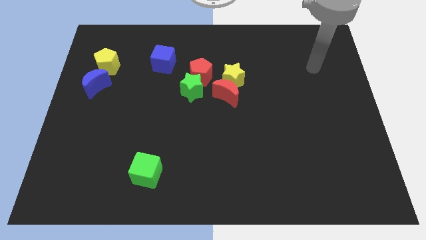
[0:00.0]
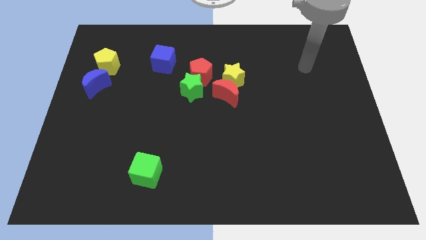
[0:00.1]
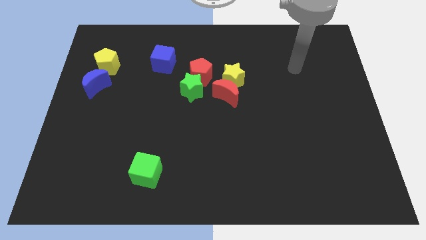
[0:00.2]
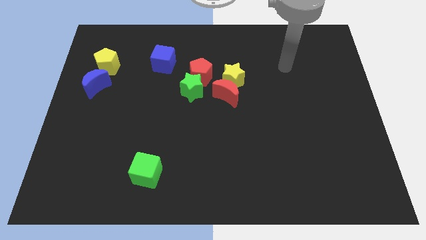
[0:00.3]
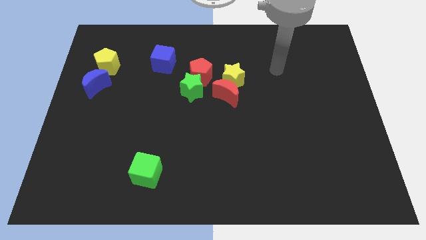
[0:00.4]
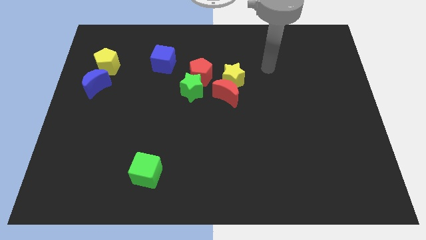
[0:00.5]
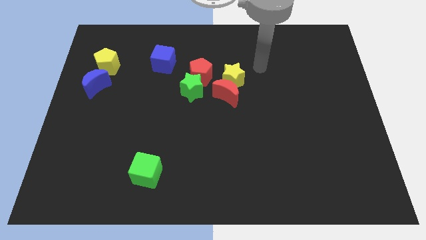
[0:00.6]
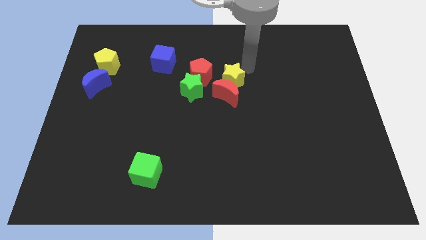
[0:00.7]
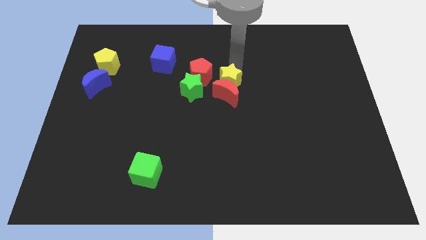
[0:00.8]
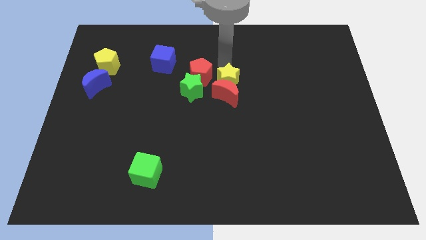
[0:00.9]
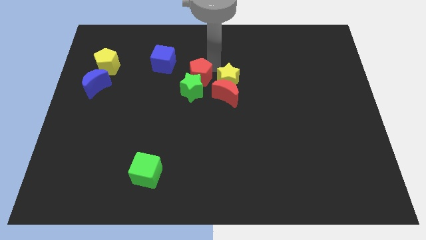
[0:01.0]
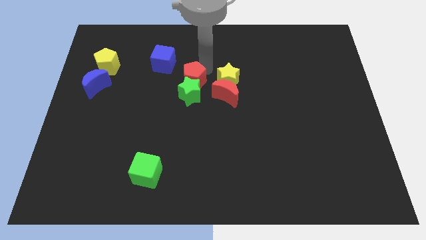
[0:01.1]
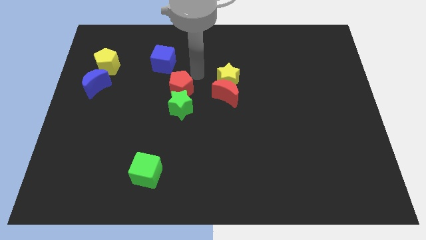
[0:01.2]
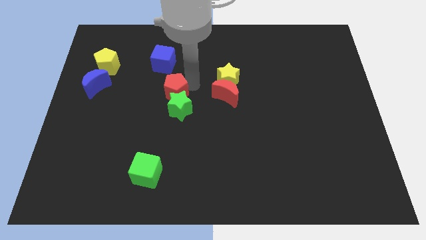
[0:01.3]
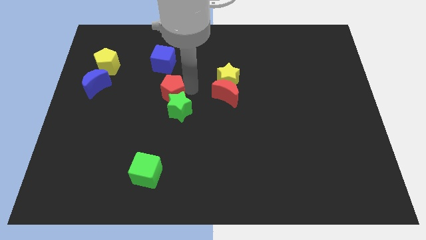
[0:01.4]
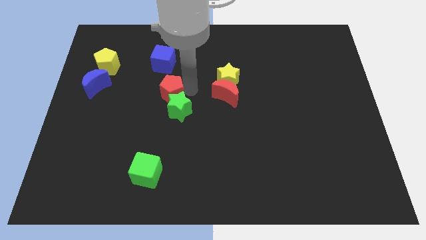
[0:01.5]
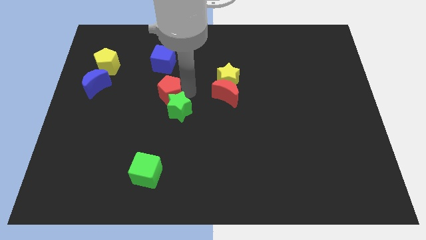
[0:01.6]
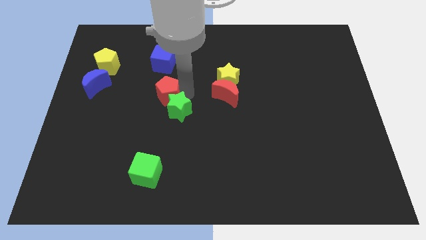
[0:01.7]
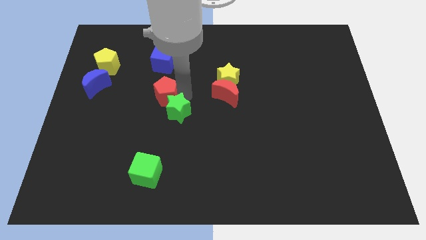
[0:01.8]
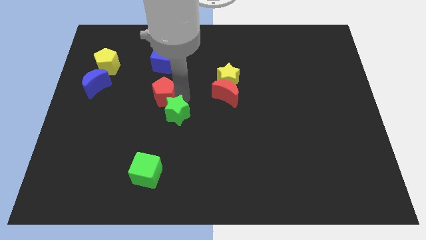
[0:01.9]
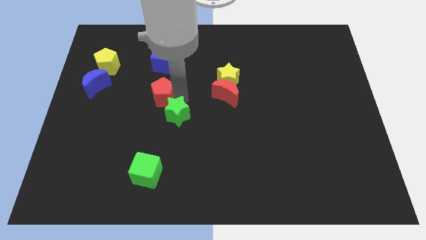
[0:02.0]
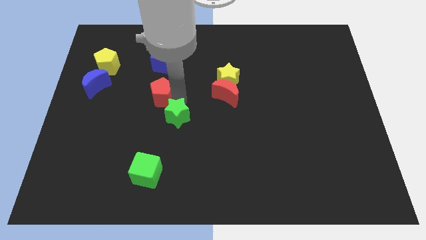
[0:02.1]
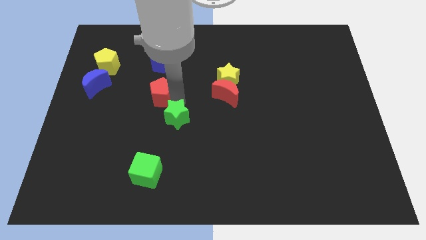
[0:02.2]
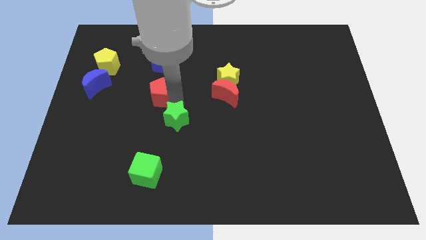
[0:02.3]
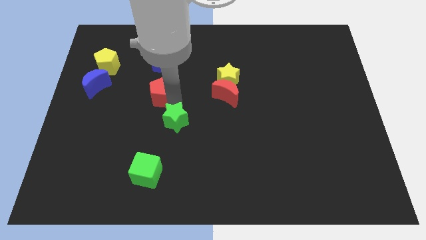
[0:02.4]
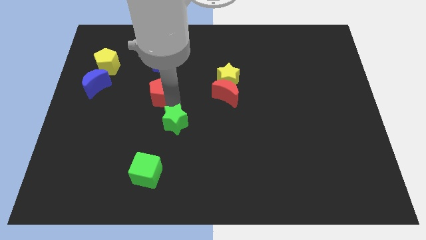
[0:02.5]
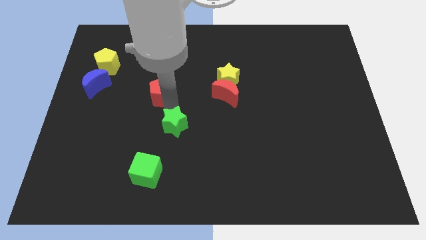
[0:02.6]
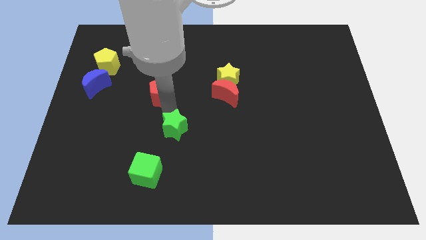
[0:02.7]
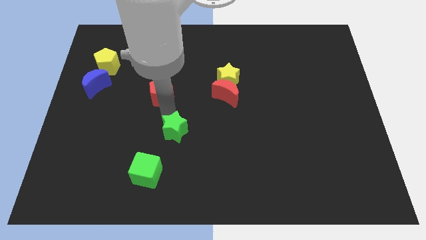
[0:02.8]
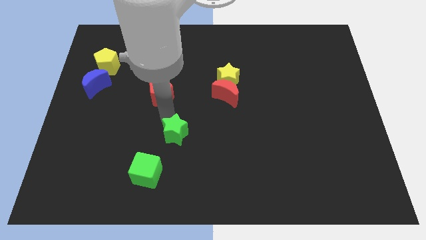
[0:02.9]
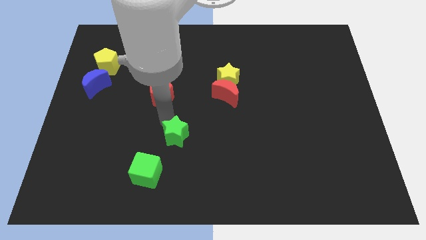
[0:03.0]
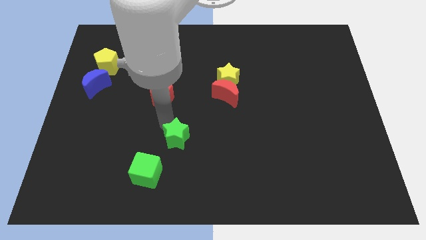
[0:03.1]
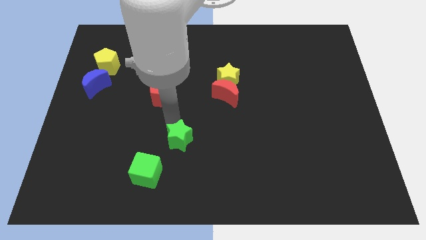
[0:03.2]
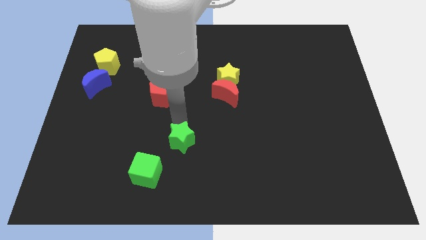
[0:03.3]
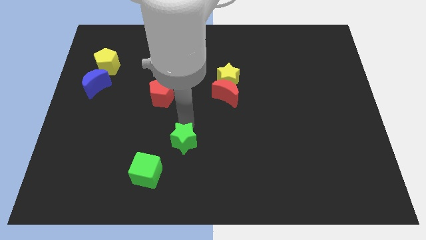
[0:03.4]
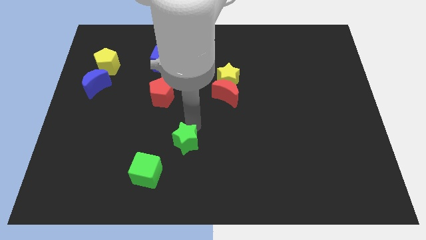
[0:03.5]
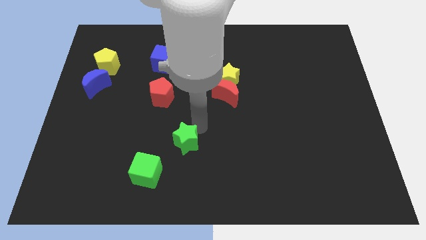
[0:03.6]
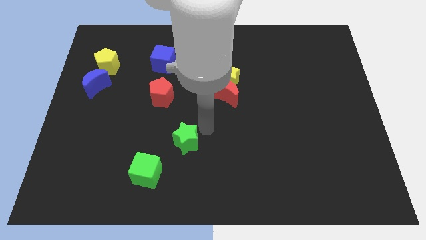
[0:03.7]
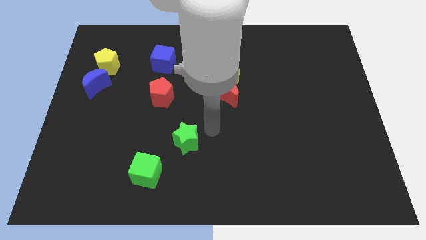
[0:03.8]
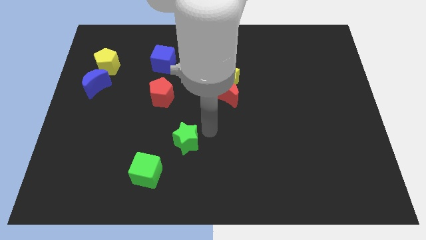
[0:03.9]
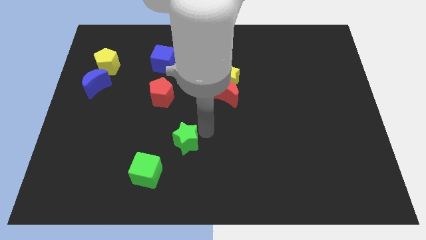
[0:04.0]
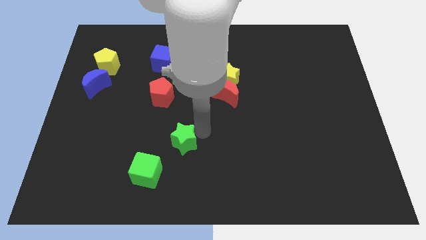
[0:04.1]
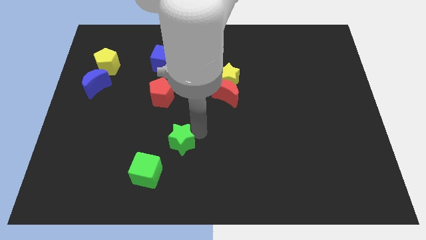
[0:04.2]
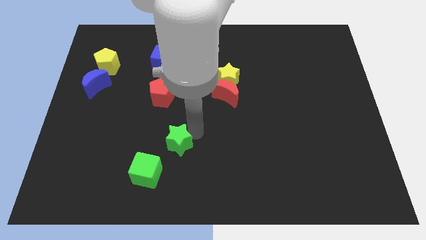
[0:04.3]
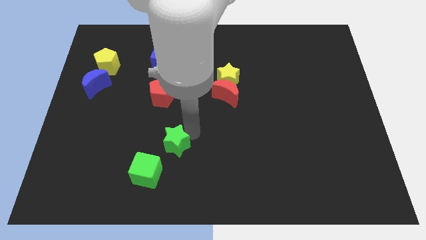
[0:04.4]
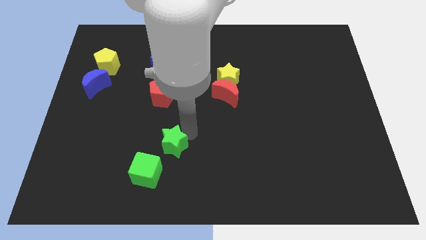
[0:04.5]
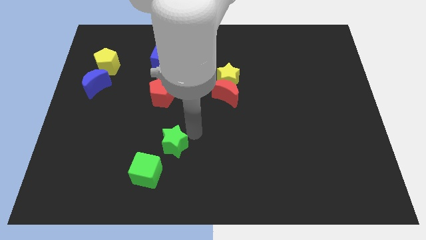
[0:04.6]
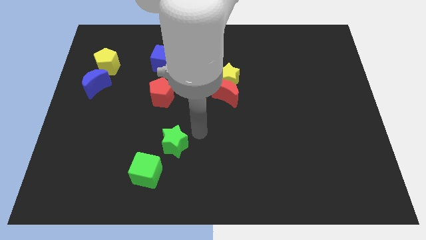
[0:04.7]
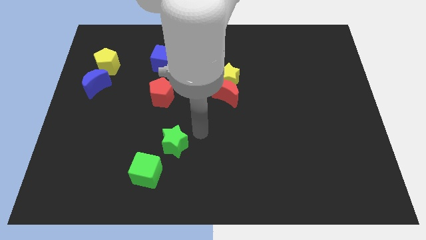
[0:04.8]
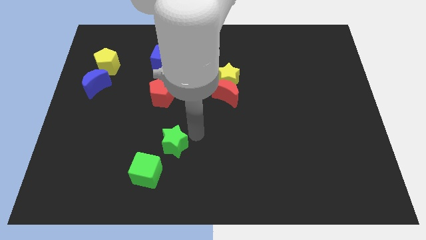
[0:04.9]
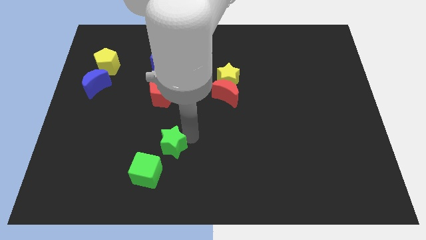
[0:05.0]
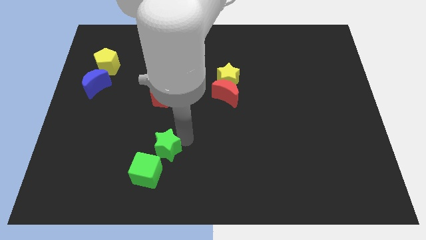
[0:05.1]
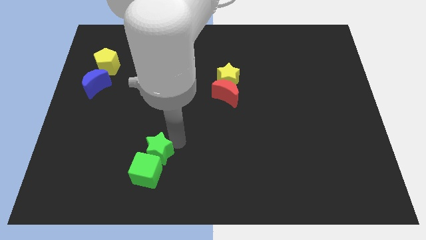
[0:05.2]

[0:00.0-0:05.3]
move the green star next to the green cube

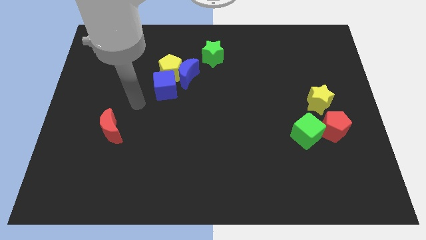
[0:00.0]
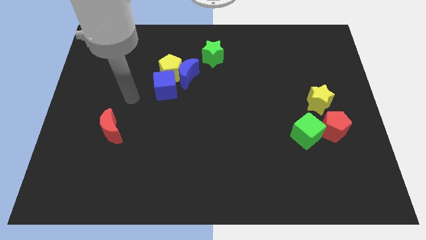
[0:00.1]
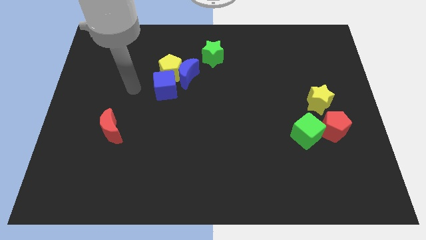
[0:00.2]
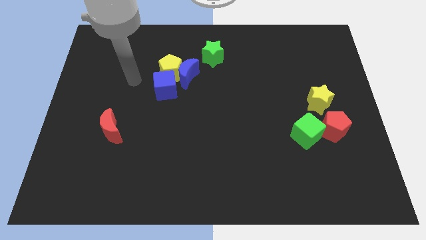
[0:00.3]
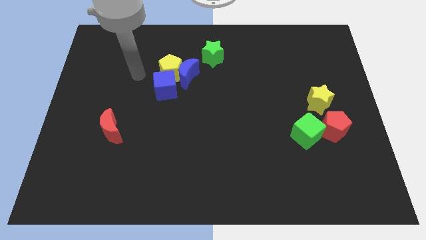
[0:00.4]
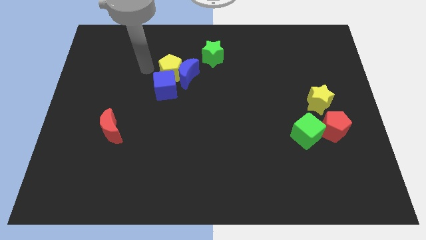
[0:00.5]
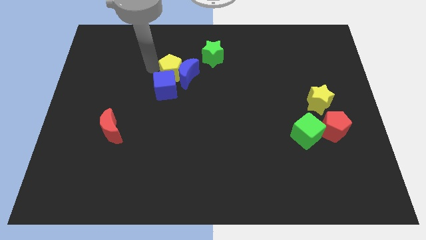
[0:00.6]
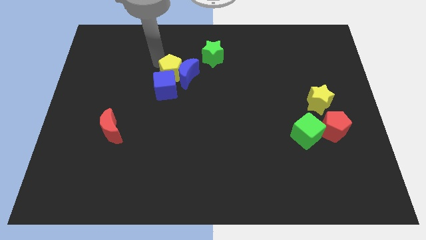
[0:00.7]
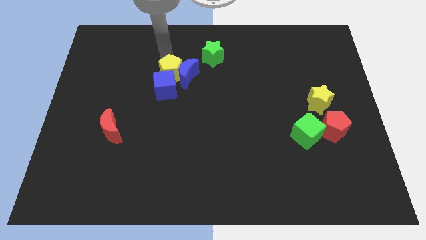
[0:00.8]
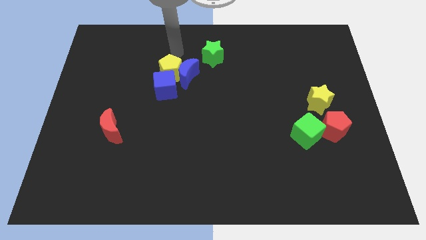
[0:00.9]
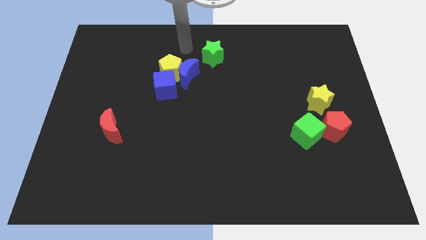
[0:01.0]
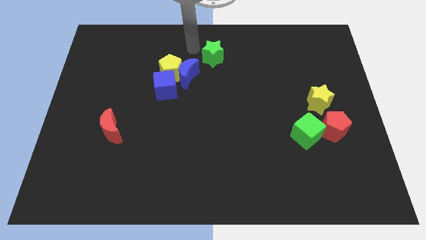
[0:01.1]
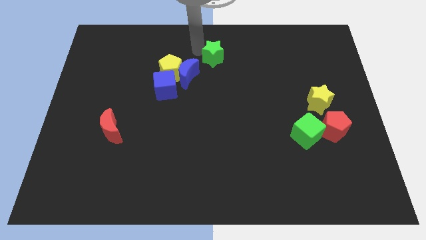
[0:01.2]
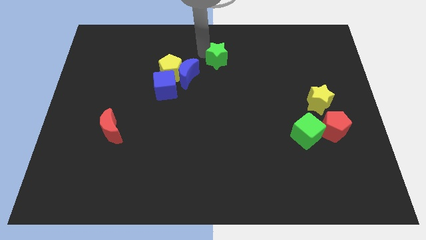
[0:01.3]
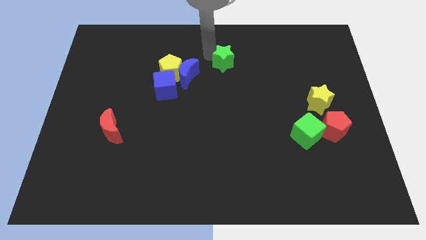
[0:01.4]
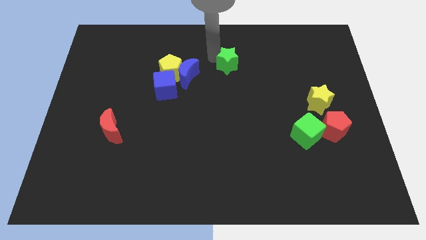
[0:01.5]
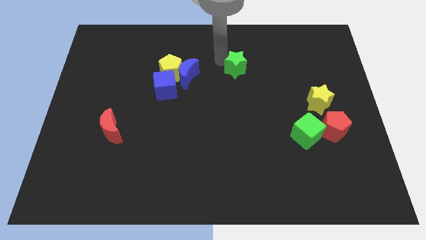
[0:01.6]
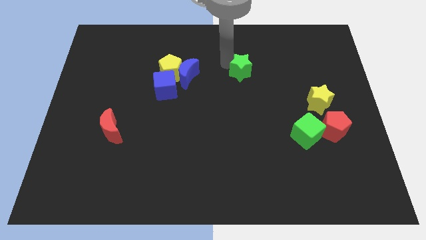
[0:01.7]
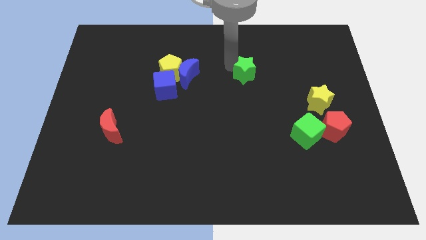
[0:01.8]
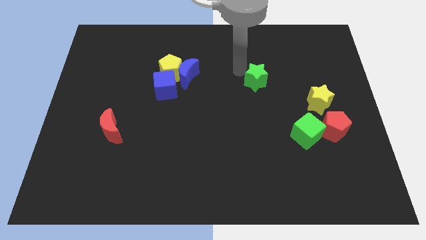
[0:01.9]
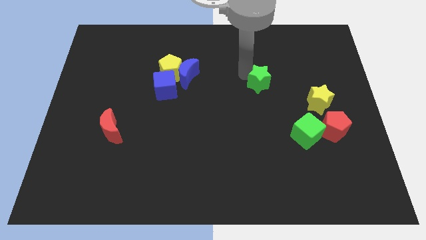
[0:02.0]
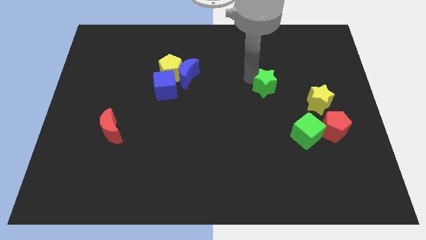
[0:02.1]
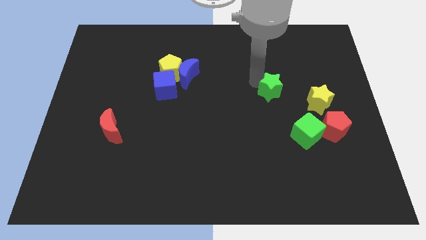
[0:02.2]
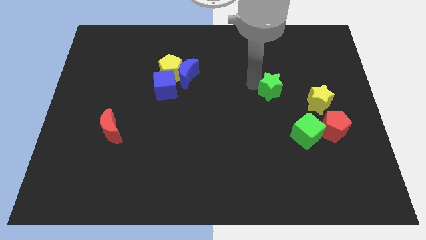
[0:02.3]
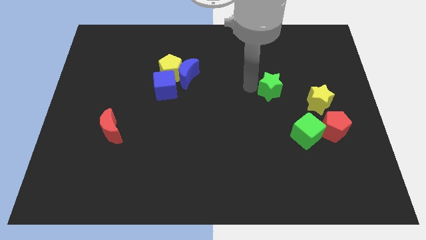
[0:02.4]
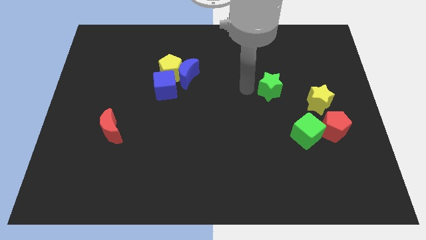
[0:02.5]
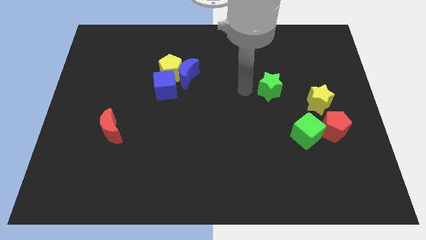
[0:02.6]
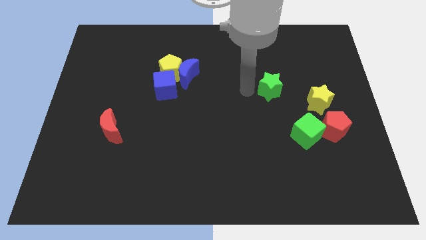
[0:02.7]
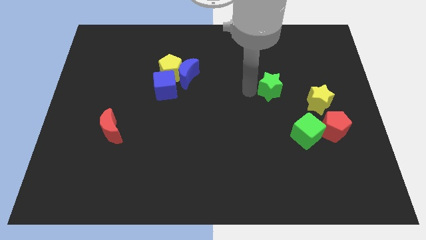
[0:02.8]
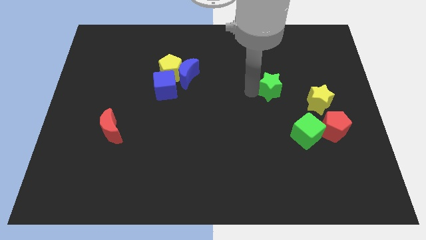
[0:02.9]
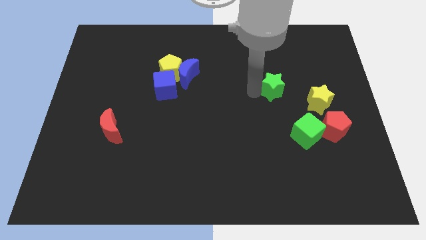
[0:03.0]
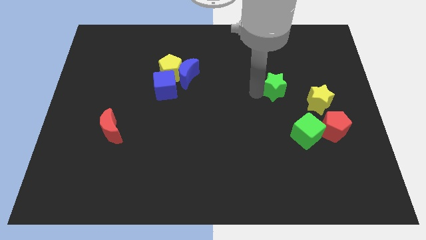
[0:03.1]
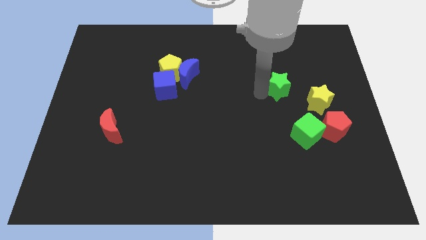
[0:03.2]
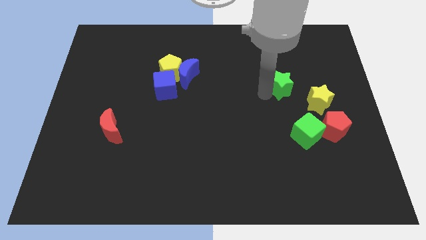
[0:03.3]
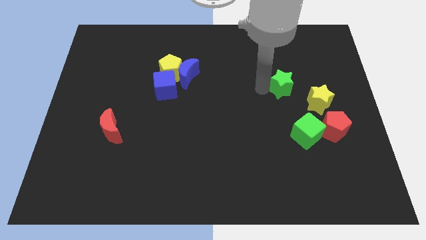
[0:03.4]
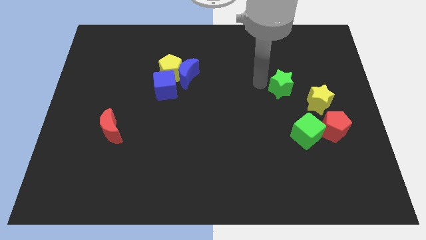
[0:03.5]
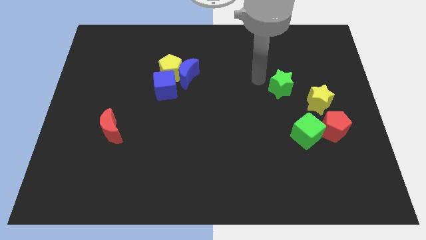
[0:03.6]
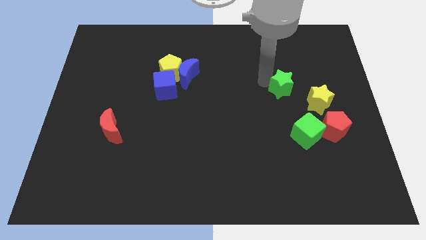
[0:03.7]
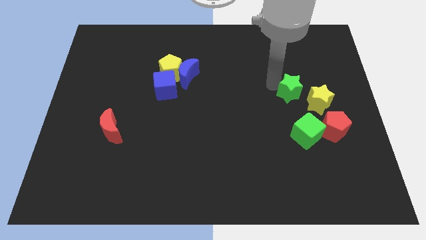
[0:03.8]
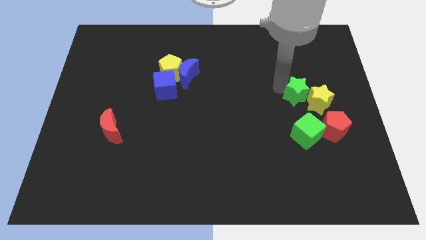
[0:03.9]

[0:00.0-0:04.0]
slide the green star towards the yellow star
